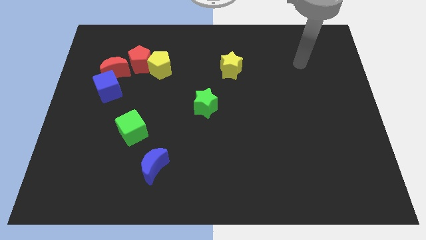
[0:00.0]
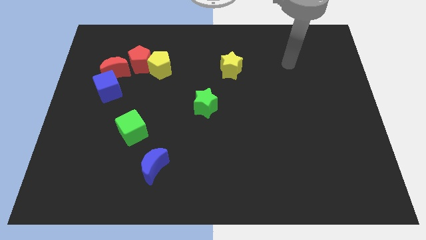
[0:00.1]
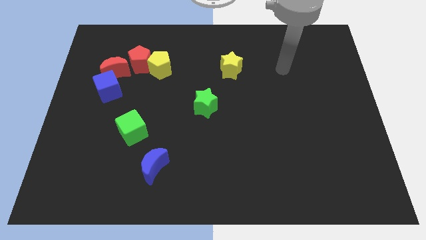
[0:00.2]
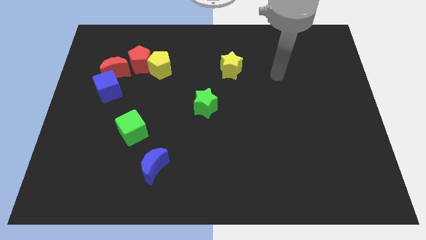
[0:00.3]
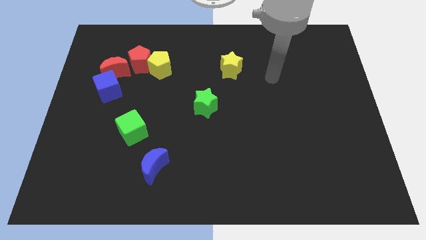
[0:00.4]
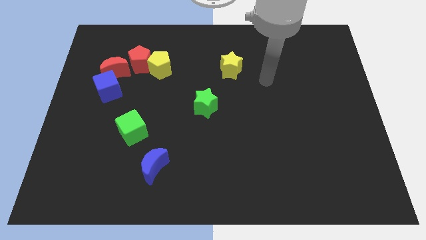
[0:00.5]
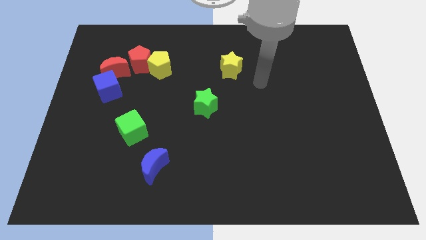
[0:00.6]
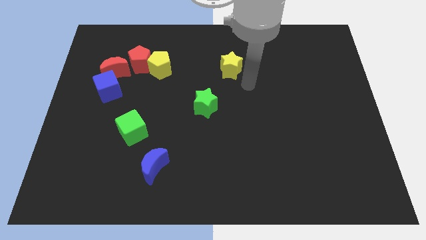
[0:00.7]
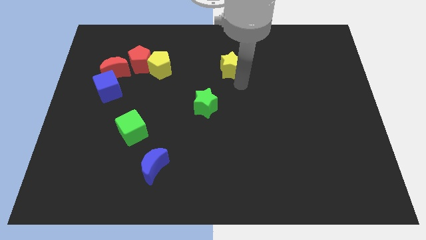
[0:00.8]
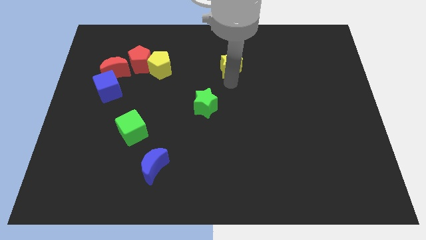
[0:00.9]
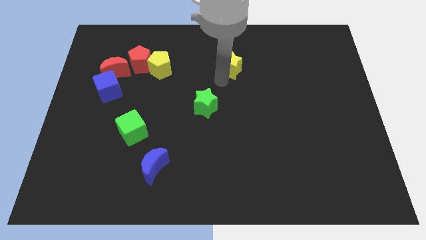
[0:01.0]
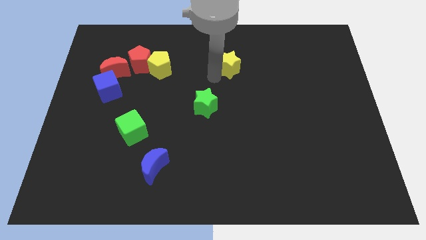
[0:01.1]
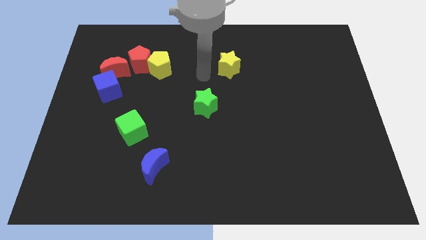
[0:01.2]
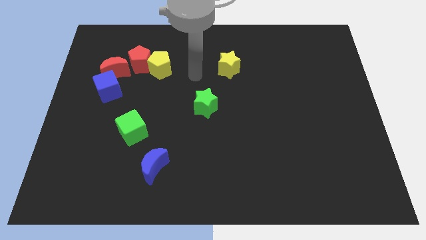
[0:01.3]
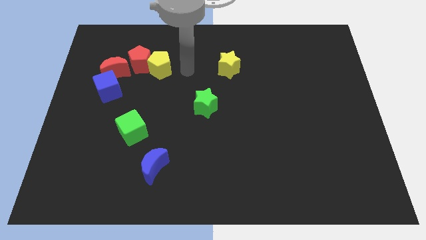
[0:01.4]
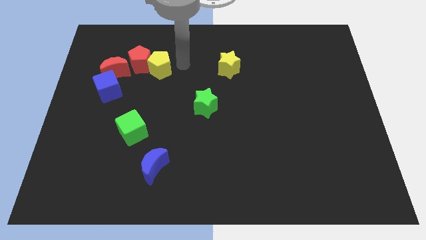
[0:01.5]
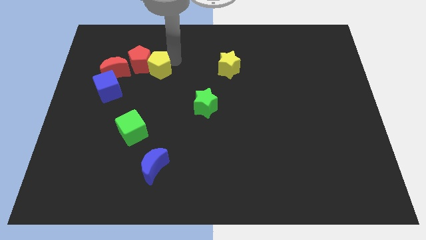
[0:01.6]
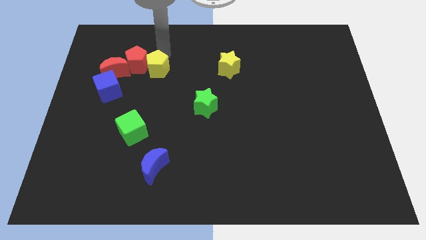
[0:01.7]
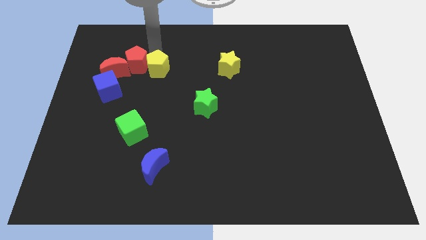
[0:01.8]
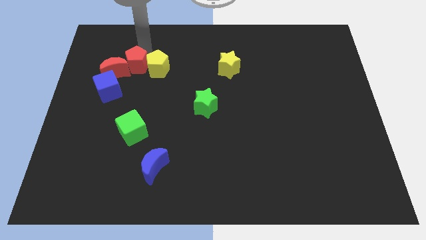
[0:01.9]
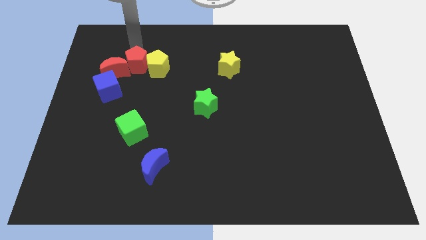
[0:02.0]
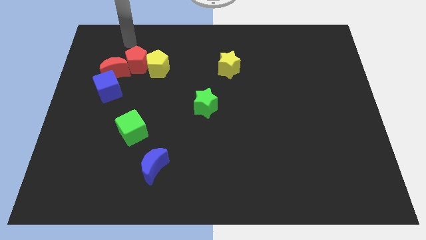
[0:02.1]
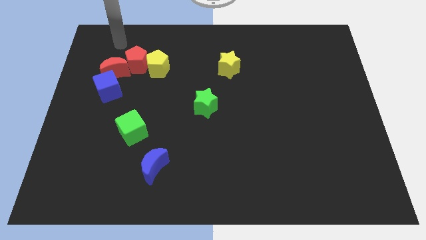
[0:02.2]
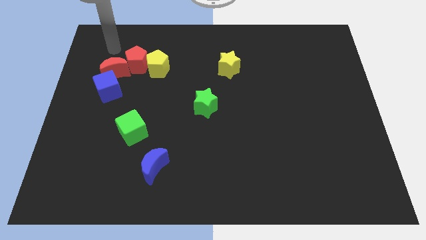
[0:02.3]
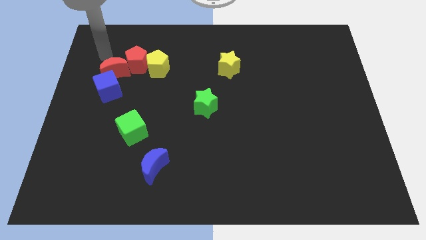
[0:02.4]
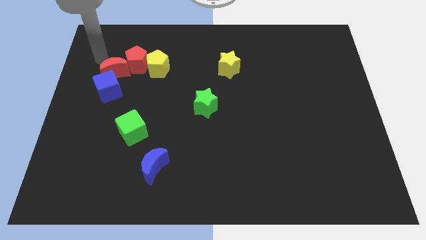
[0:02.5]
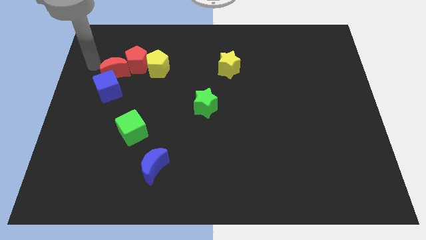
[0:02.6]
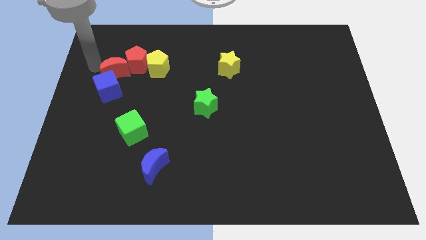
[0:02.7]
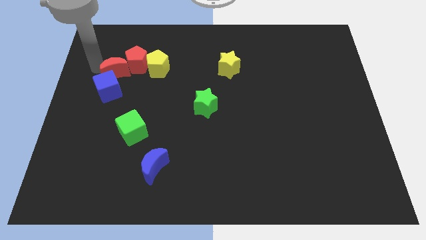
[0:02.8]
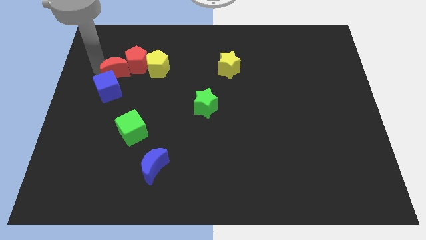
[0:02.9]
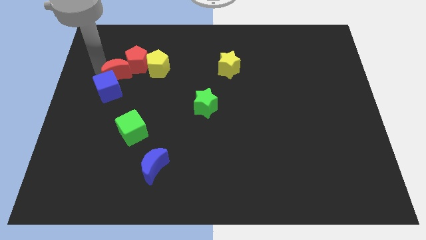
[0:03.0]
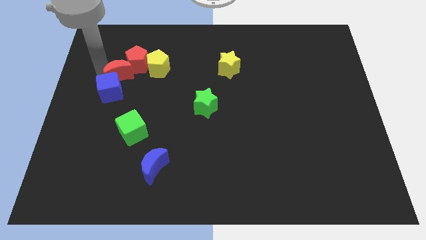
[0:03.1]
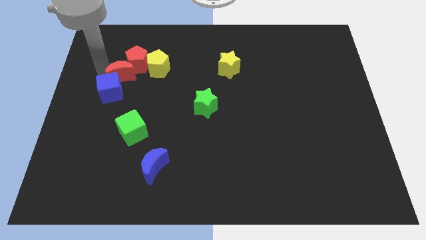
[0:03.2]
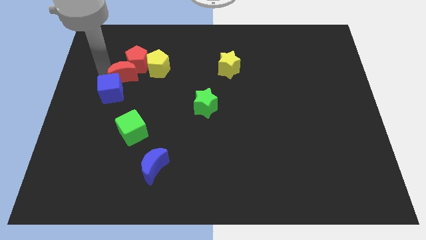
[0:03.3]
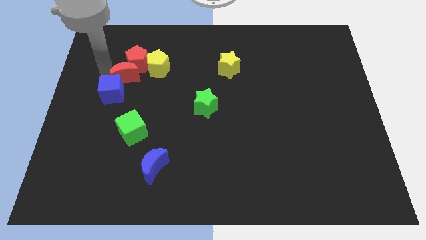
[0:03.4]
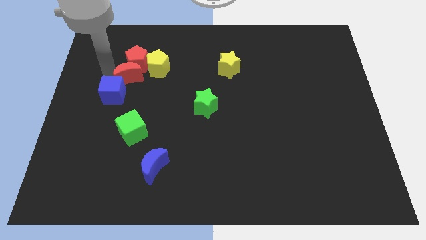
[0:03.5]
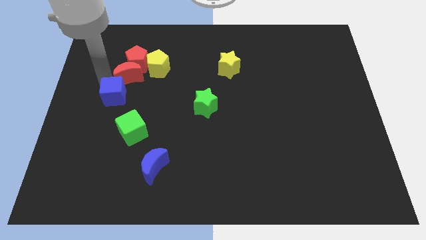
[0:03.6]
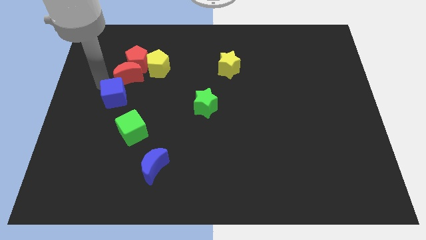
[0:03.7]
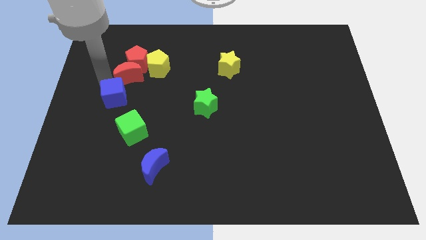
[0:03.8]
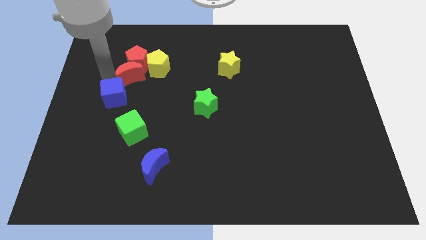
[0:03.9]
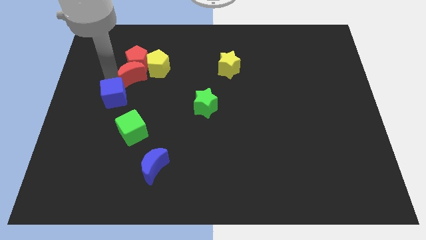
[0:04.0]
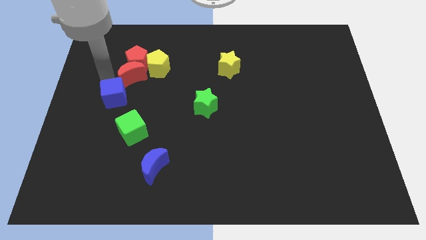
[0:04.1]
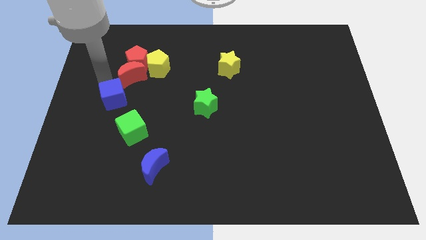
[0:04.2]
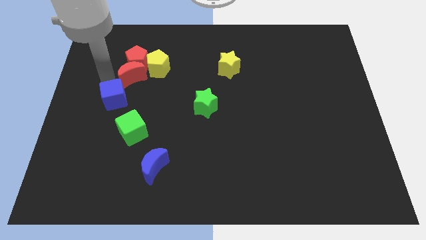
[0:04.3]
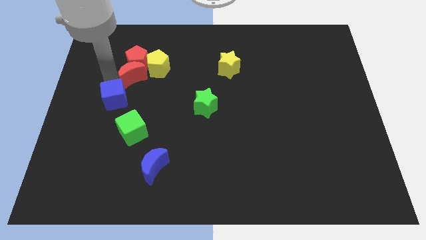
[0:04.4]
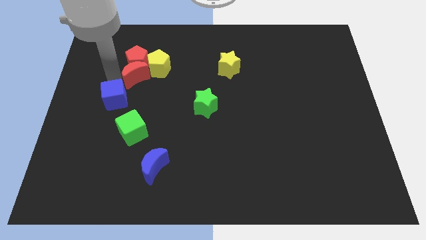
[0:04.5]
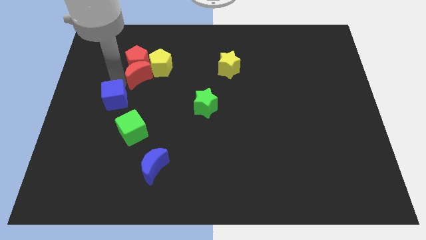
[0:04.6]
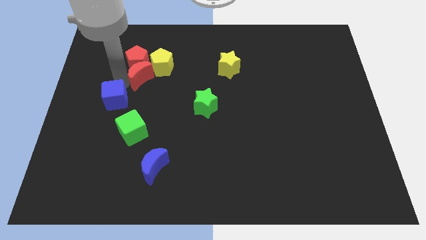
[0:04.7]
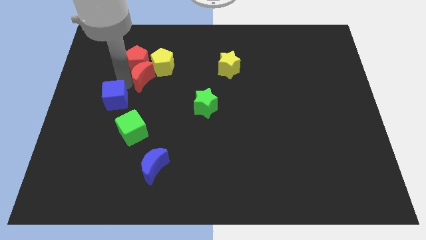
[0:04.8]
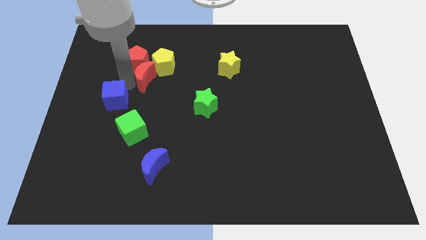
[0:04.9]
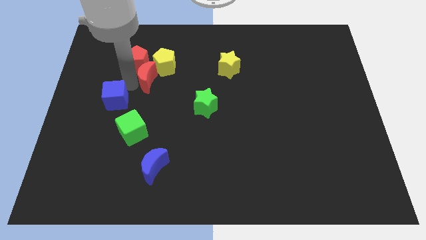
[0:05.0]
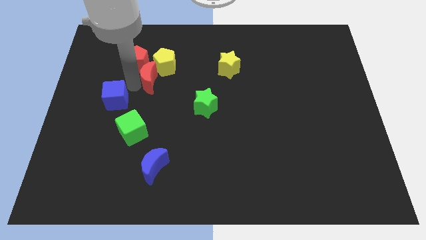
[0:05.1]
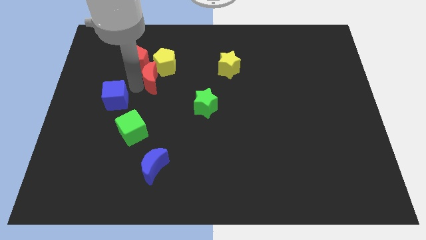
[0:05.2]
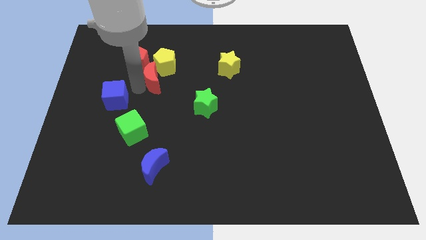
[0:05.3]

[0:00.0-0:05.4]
move the red moon towards the yellow pentagon

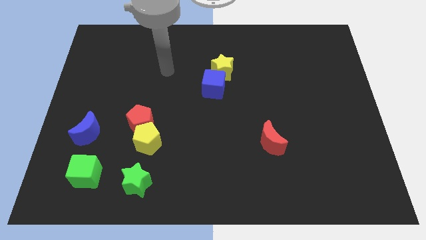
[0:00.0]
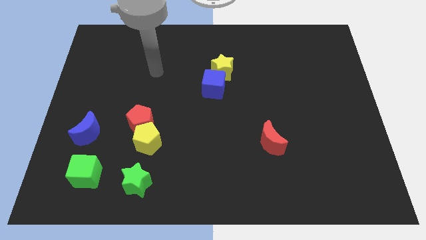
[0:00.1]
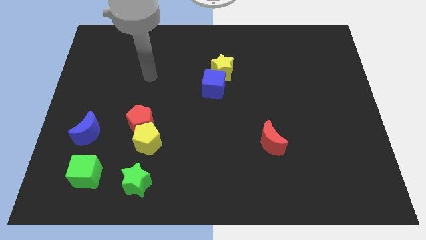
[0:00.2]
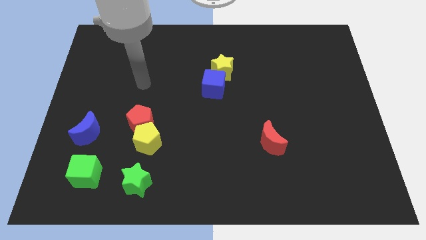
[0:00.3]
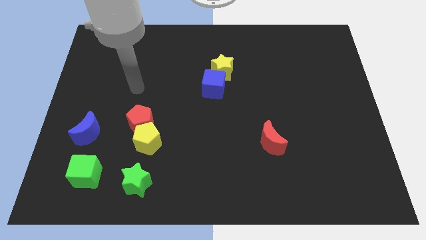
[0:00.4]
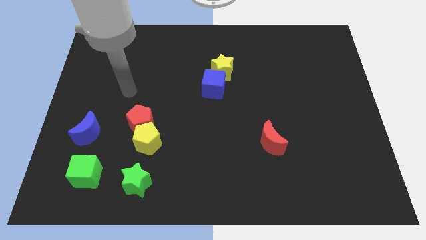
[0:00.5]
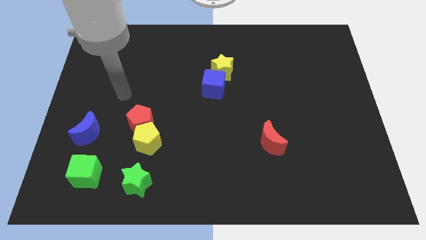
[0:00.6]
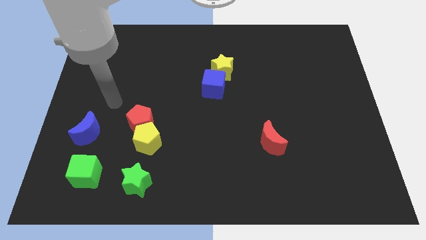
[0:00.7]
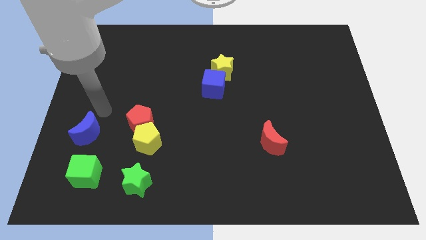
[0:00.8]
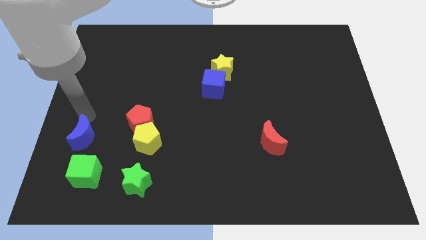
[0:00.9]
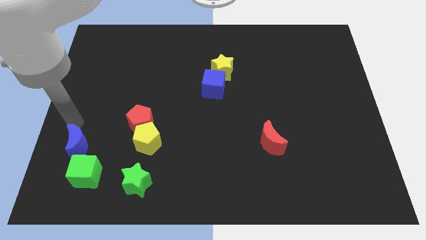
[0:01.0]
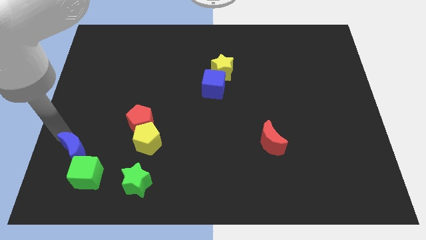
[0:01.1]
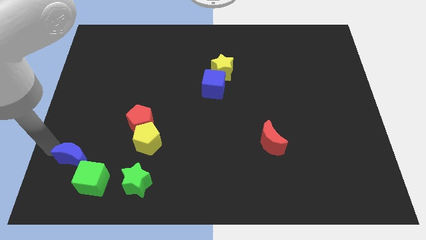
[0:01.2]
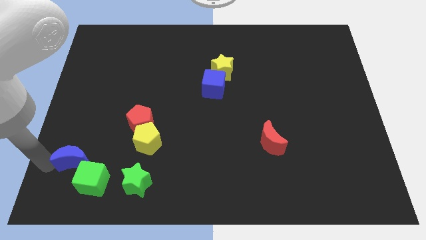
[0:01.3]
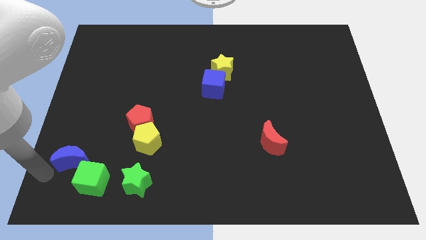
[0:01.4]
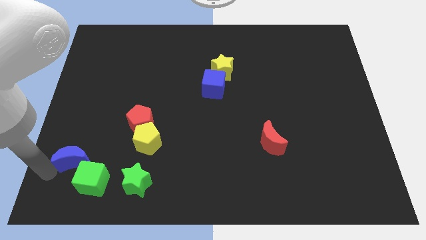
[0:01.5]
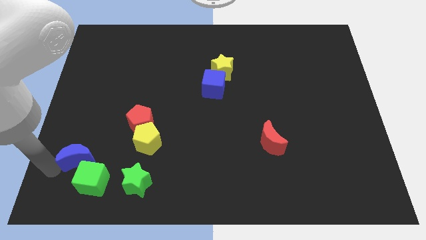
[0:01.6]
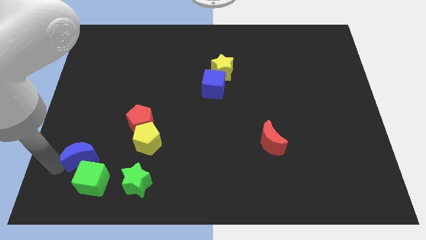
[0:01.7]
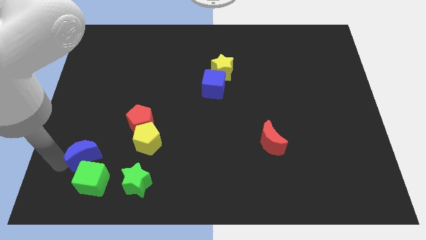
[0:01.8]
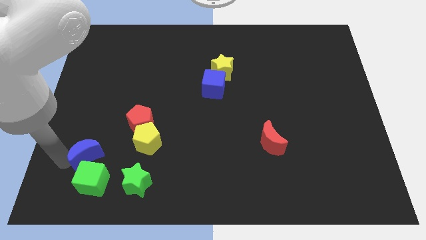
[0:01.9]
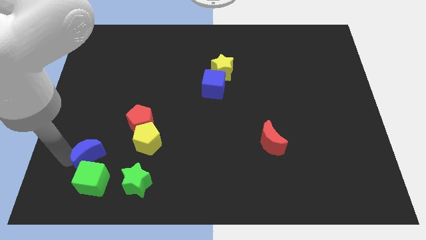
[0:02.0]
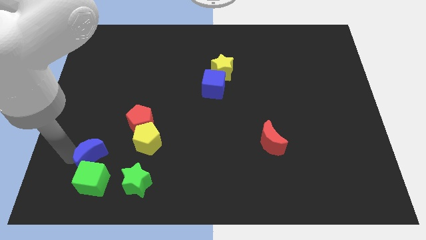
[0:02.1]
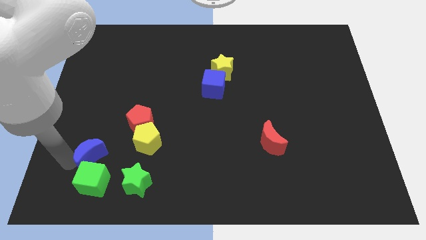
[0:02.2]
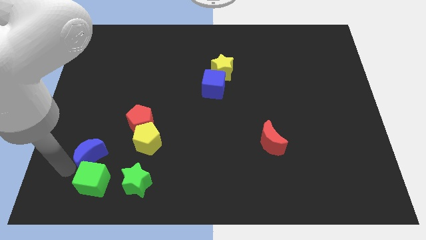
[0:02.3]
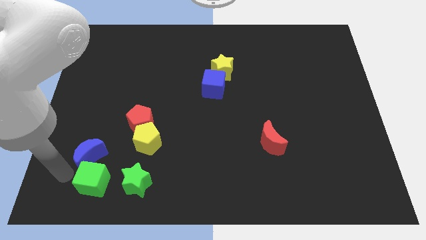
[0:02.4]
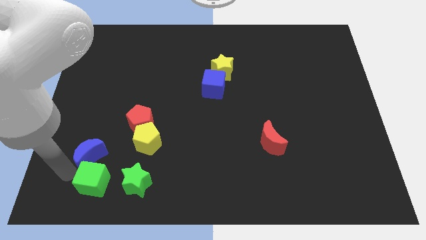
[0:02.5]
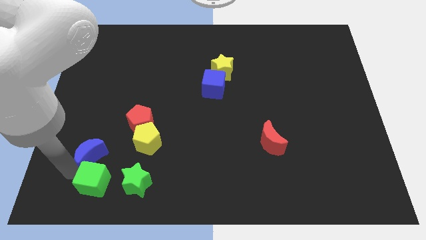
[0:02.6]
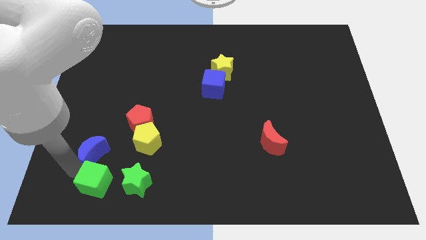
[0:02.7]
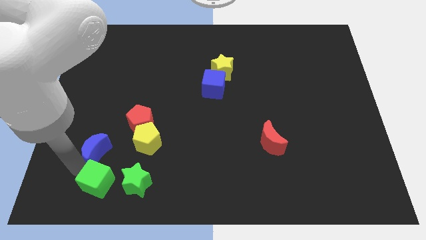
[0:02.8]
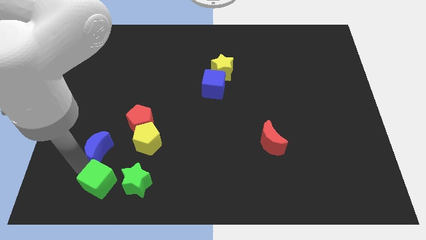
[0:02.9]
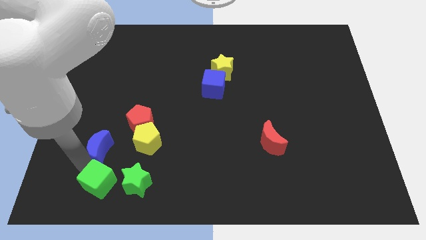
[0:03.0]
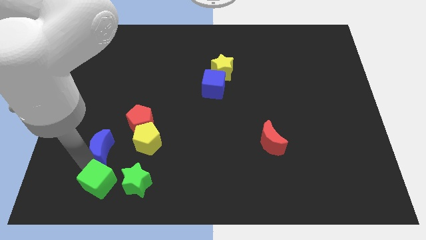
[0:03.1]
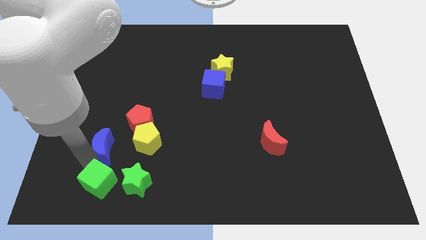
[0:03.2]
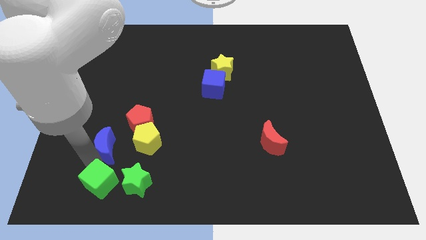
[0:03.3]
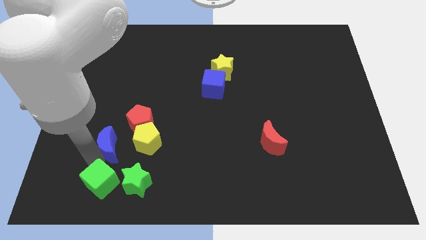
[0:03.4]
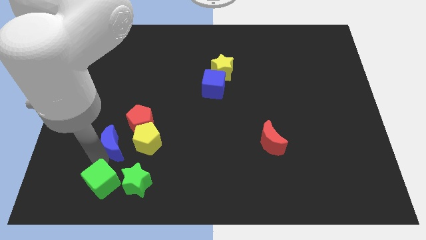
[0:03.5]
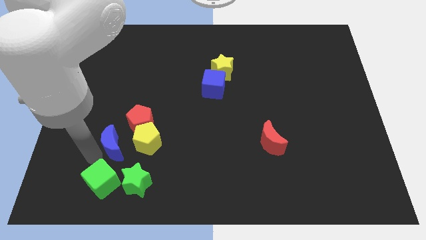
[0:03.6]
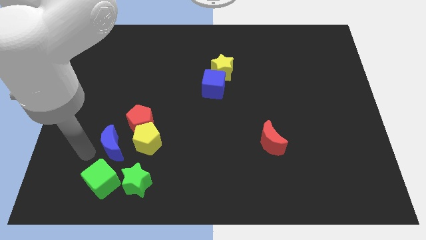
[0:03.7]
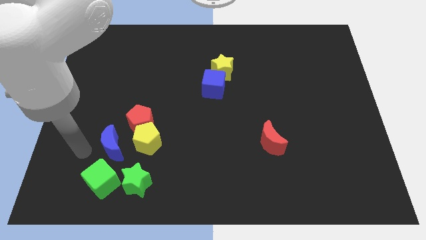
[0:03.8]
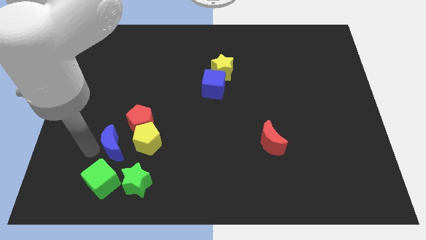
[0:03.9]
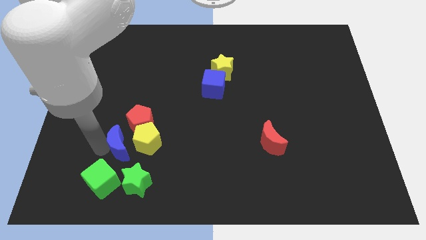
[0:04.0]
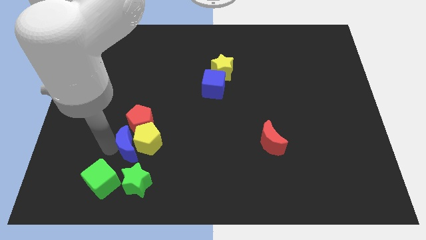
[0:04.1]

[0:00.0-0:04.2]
push the blue moon next to the yellow pentagon
